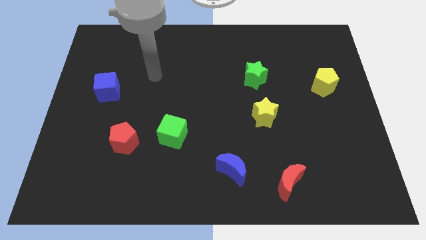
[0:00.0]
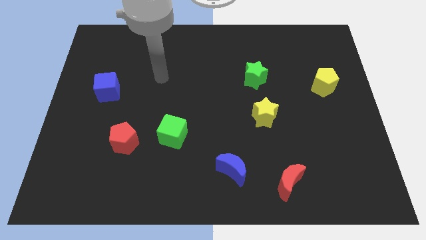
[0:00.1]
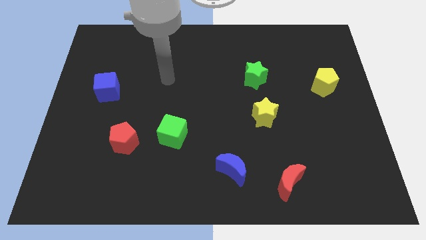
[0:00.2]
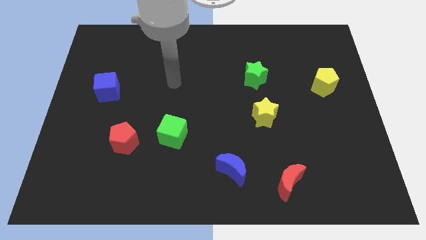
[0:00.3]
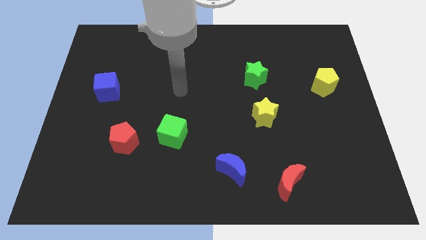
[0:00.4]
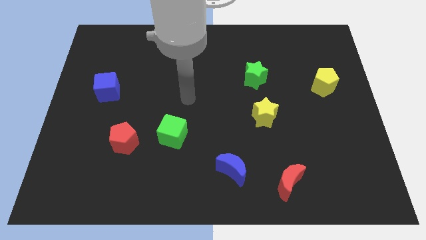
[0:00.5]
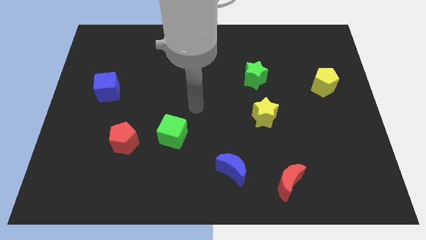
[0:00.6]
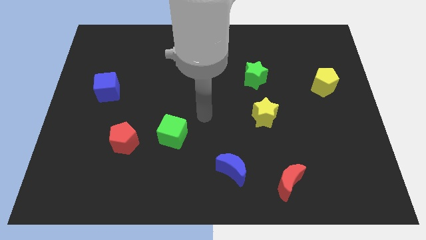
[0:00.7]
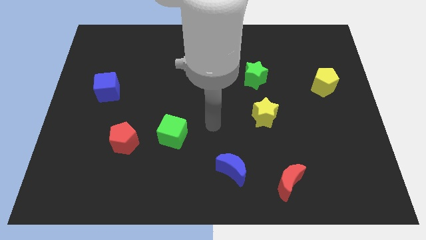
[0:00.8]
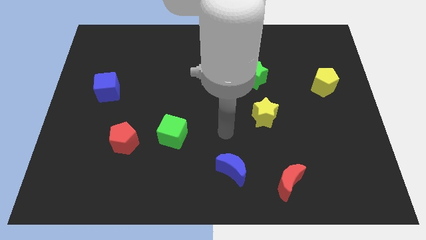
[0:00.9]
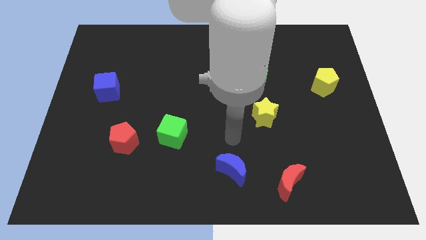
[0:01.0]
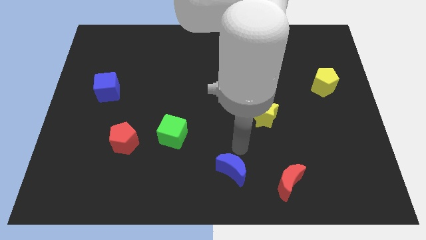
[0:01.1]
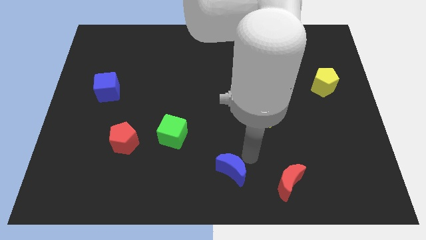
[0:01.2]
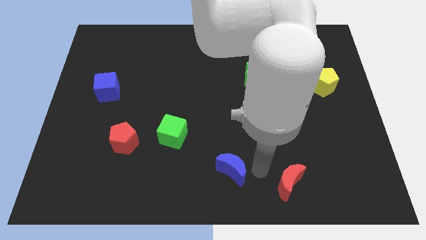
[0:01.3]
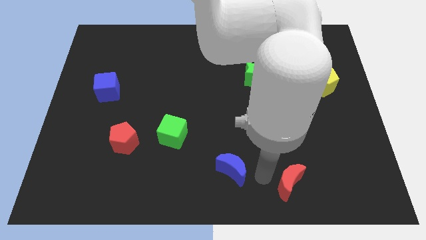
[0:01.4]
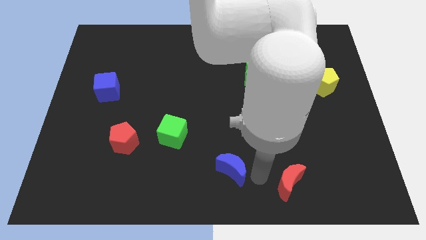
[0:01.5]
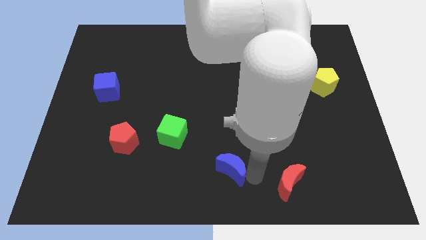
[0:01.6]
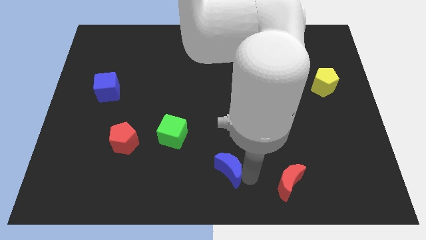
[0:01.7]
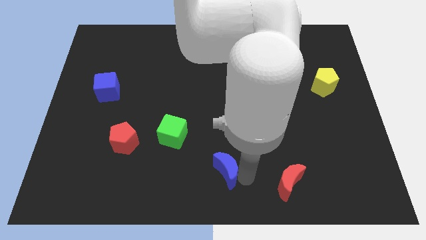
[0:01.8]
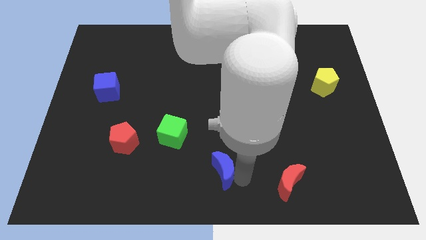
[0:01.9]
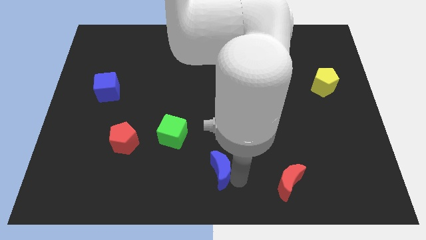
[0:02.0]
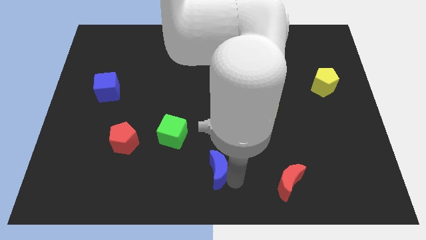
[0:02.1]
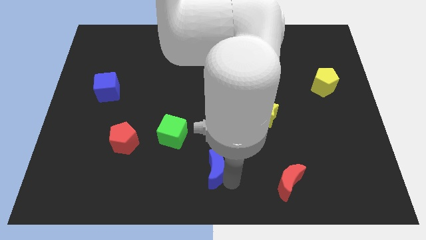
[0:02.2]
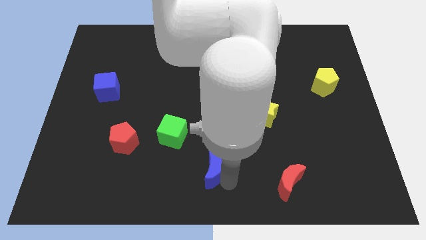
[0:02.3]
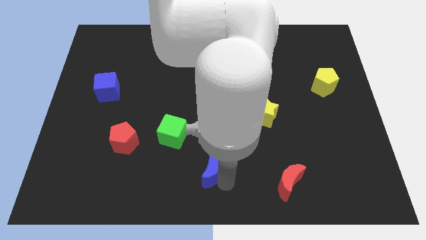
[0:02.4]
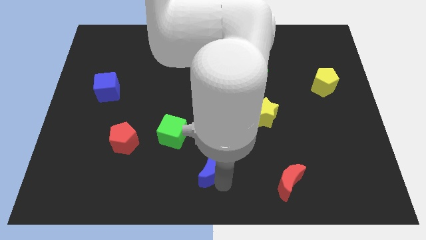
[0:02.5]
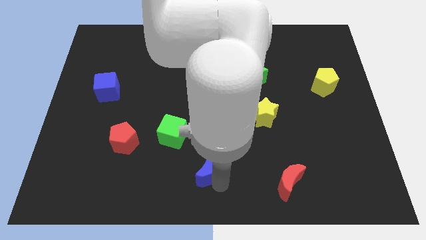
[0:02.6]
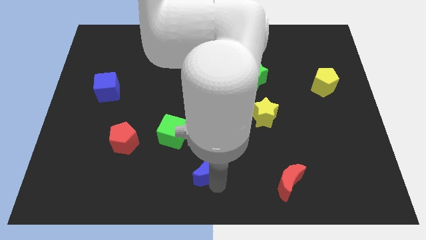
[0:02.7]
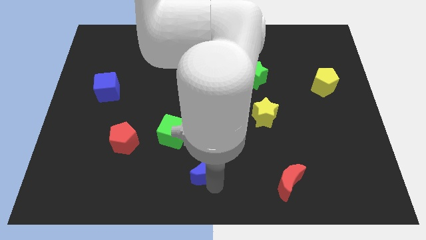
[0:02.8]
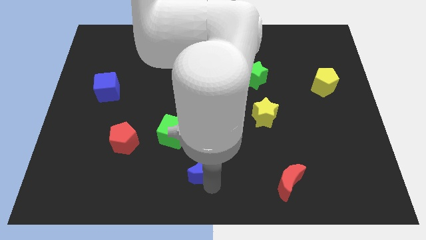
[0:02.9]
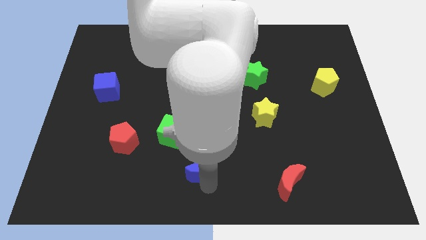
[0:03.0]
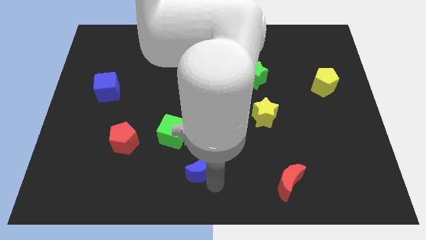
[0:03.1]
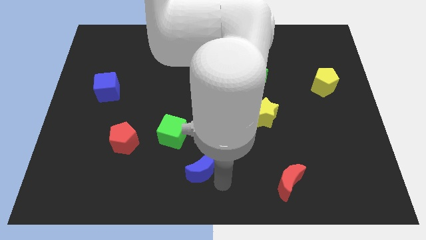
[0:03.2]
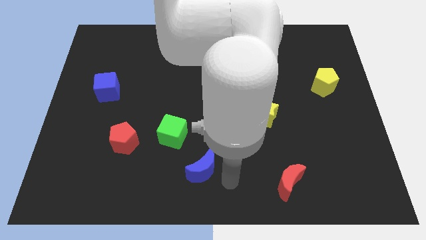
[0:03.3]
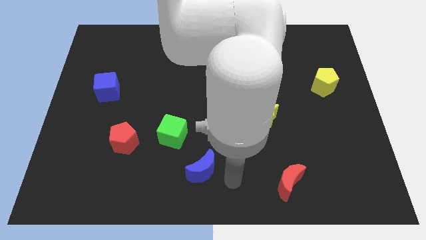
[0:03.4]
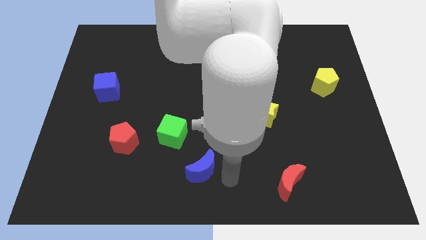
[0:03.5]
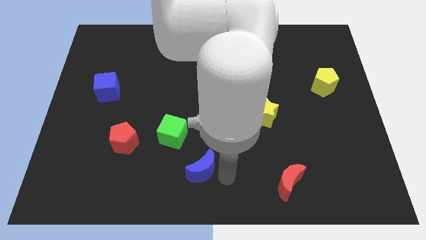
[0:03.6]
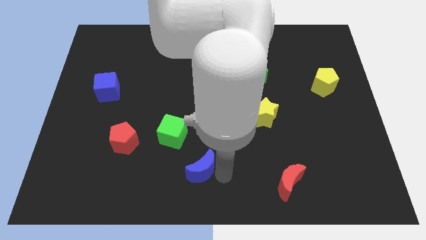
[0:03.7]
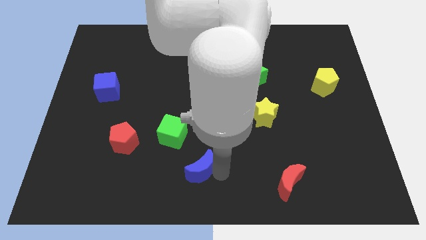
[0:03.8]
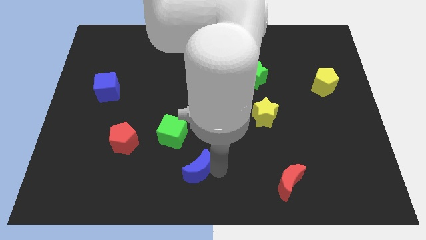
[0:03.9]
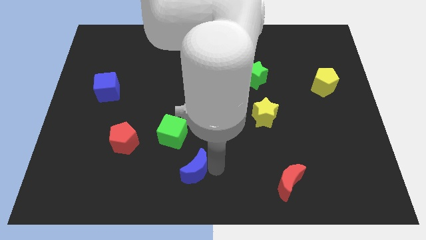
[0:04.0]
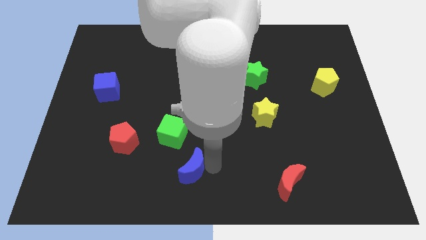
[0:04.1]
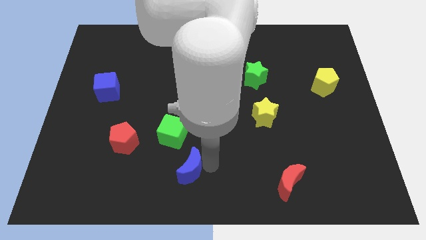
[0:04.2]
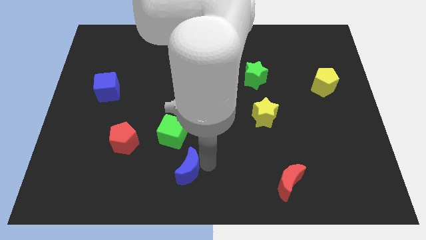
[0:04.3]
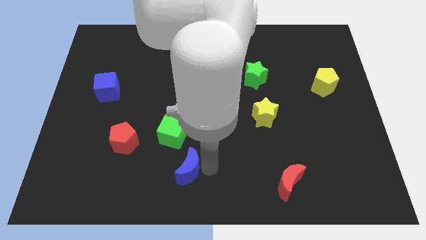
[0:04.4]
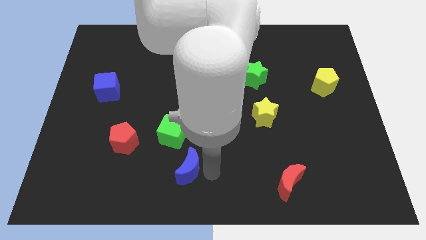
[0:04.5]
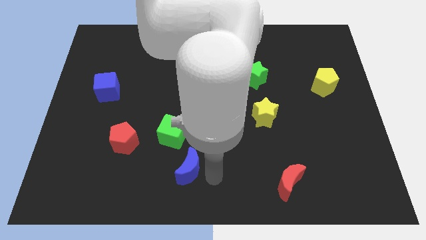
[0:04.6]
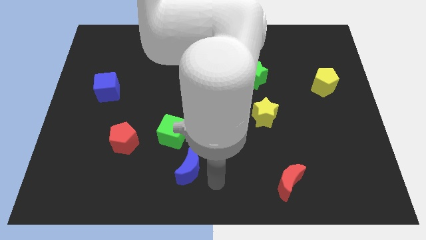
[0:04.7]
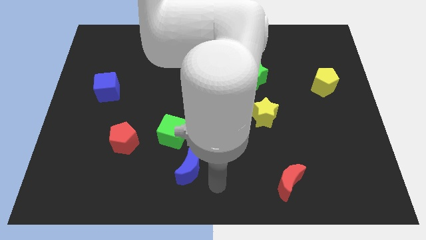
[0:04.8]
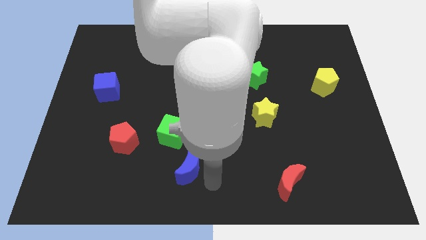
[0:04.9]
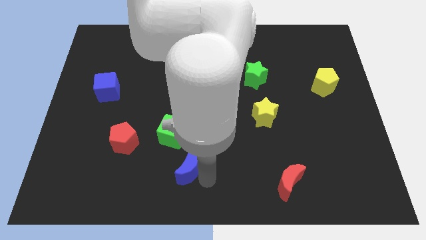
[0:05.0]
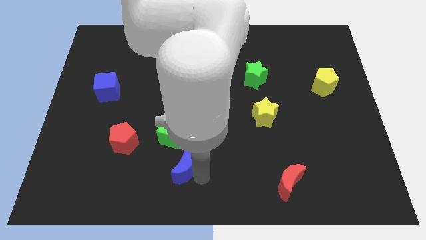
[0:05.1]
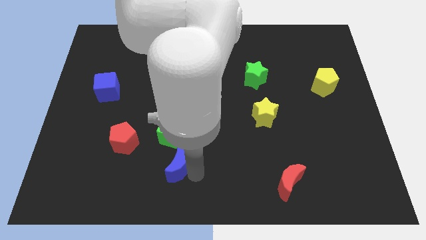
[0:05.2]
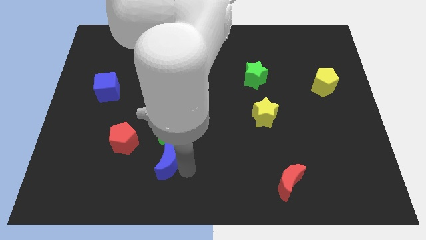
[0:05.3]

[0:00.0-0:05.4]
slide the blue moon to the bottom left side of the green cube

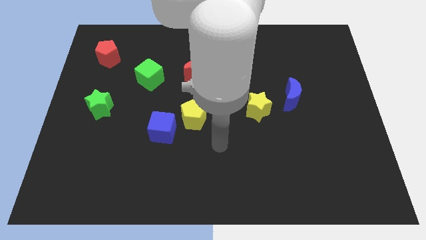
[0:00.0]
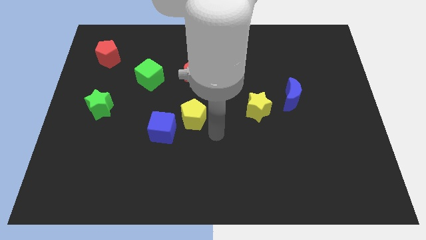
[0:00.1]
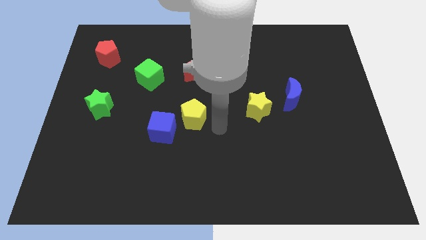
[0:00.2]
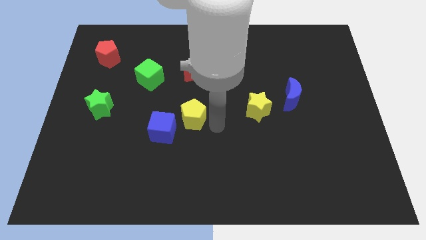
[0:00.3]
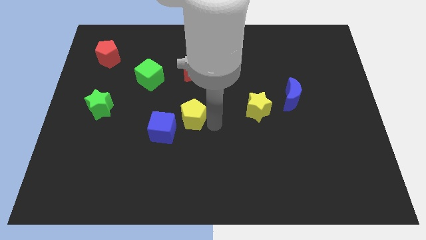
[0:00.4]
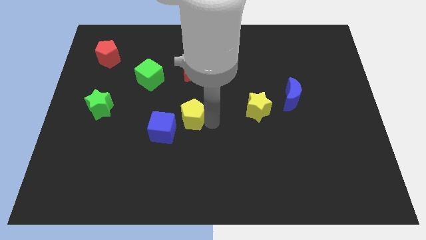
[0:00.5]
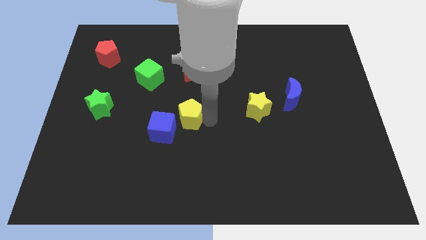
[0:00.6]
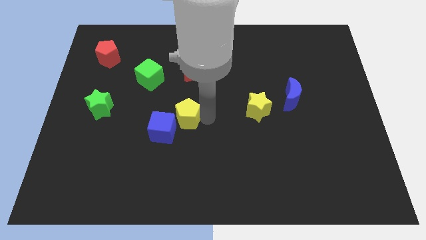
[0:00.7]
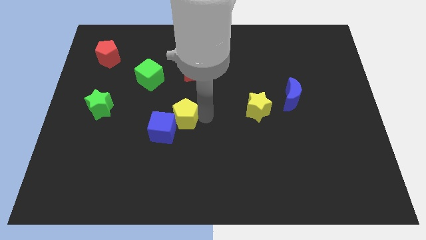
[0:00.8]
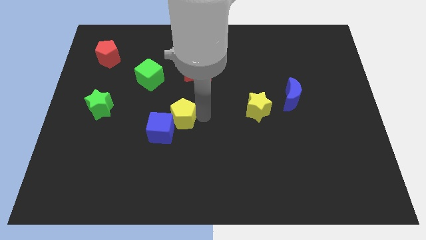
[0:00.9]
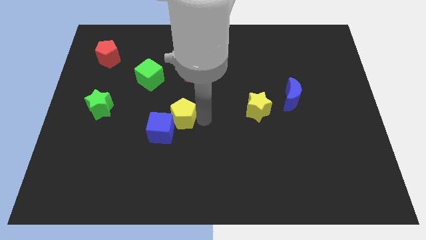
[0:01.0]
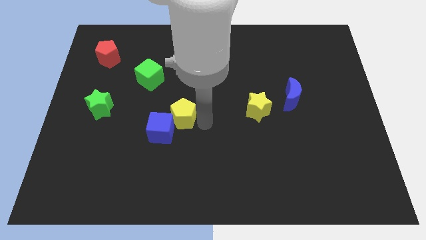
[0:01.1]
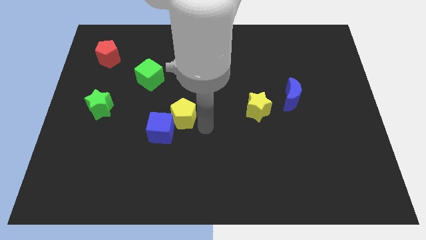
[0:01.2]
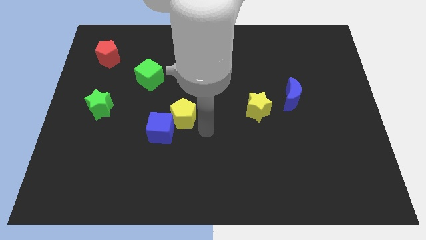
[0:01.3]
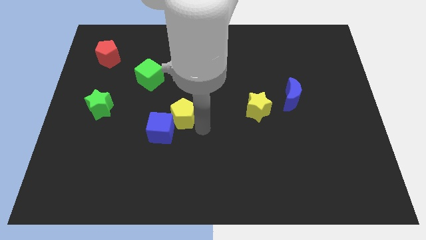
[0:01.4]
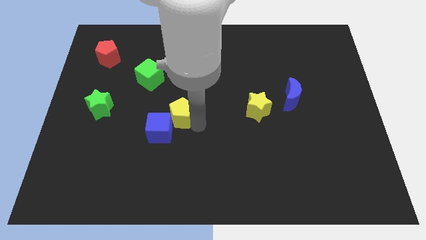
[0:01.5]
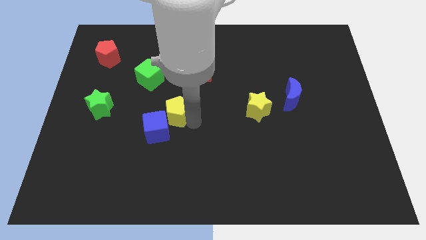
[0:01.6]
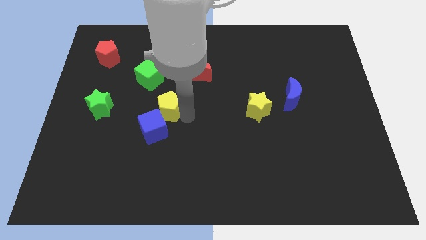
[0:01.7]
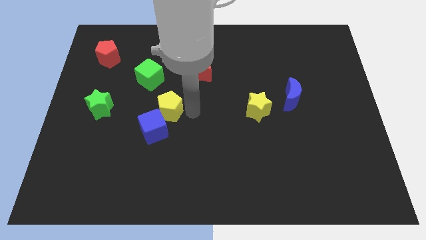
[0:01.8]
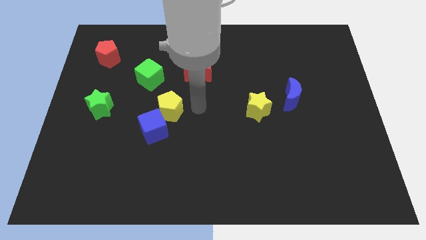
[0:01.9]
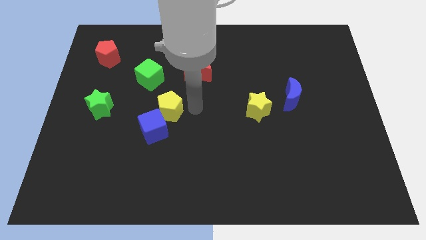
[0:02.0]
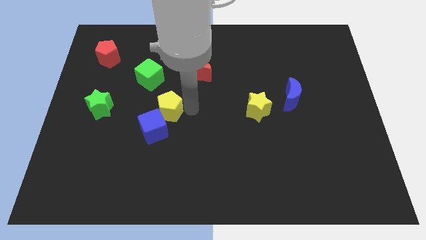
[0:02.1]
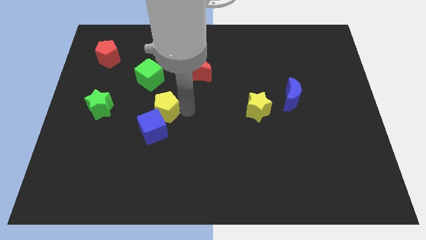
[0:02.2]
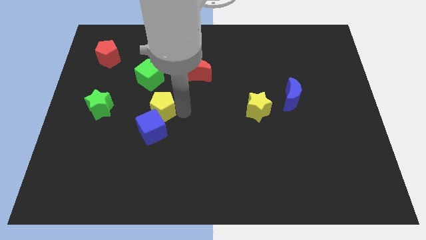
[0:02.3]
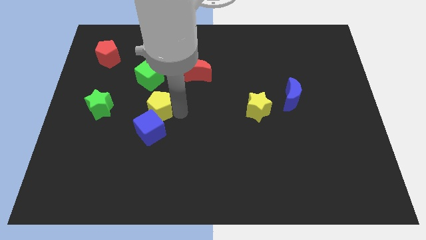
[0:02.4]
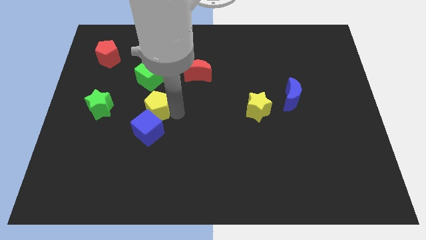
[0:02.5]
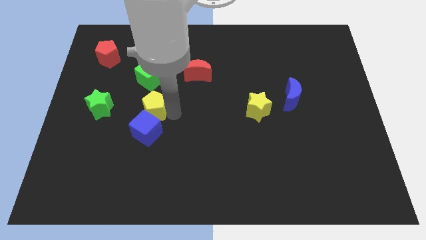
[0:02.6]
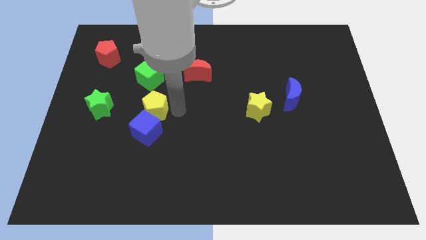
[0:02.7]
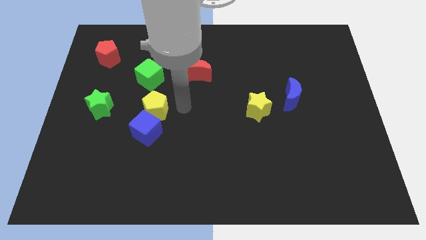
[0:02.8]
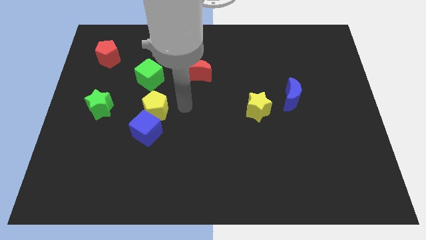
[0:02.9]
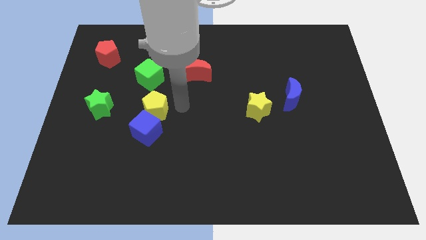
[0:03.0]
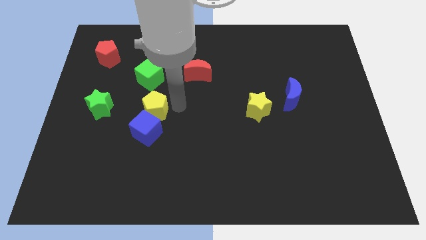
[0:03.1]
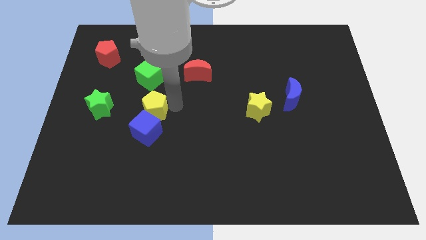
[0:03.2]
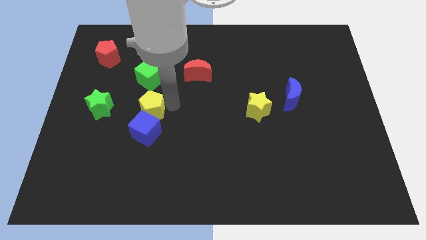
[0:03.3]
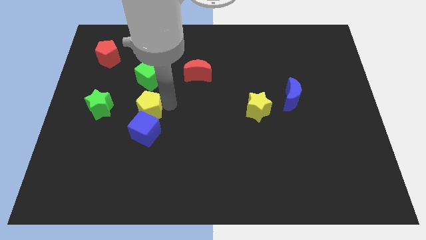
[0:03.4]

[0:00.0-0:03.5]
push the yellow pentagon to the top left of the blue cube
